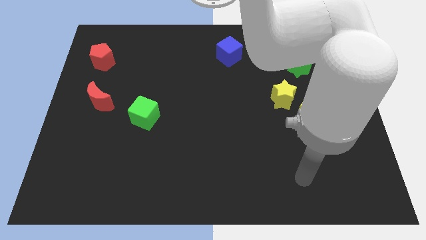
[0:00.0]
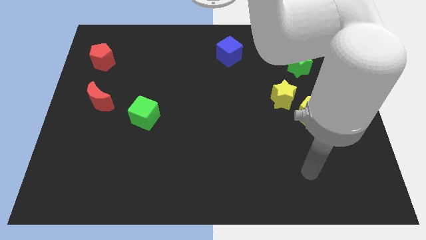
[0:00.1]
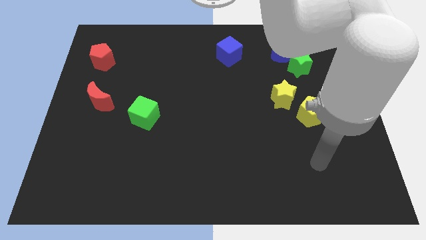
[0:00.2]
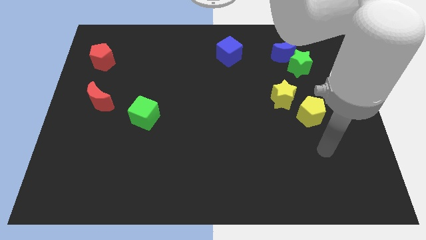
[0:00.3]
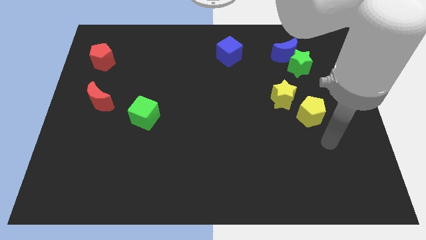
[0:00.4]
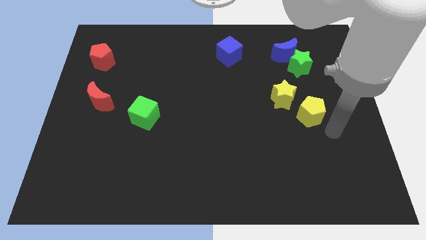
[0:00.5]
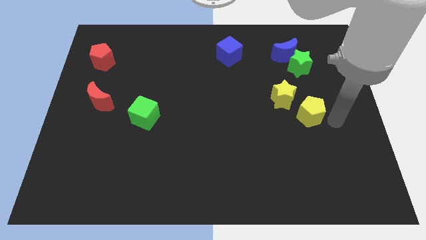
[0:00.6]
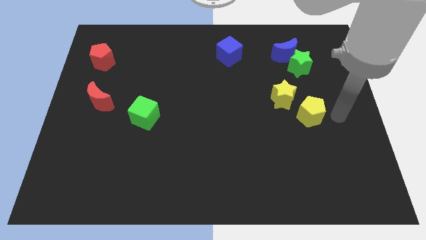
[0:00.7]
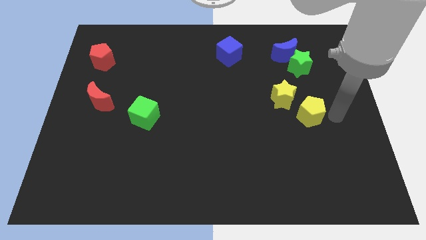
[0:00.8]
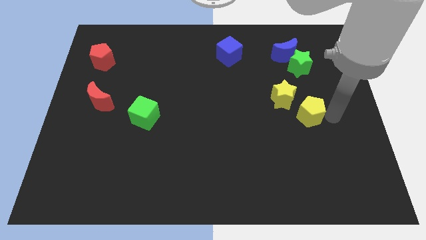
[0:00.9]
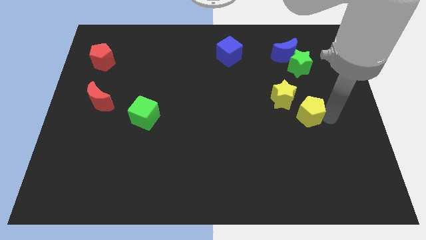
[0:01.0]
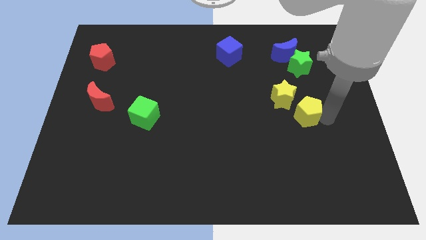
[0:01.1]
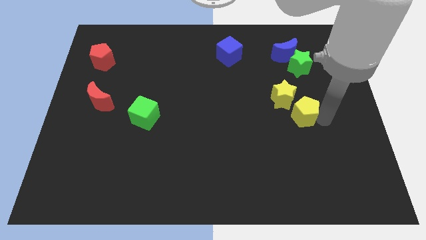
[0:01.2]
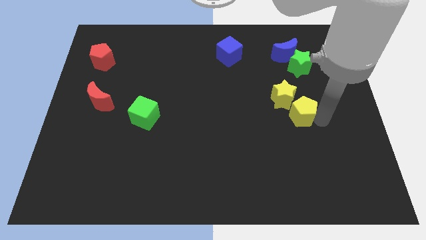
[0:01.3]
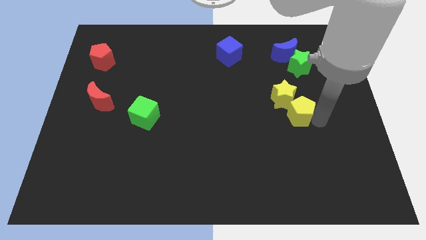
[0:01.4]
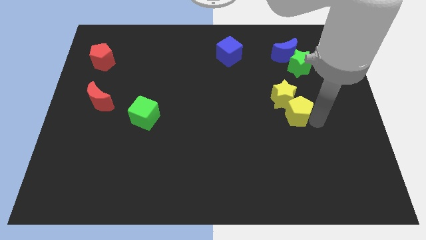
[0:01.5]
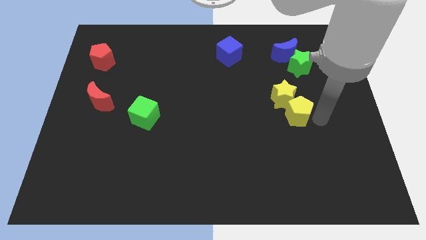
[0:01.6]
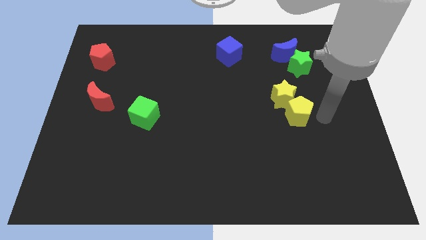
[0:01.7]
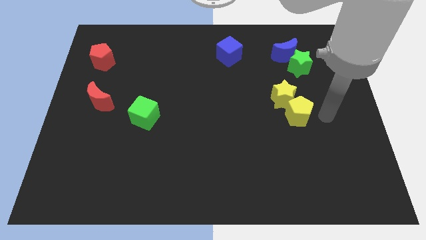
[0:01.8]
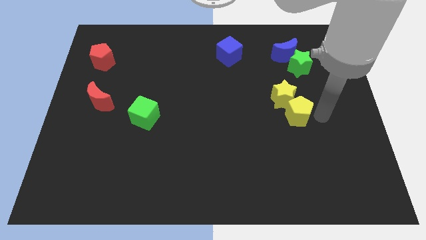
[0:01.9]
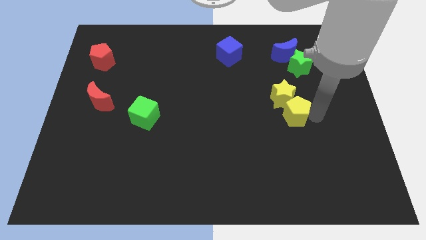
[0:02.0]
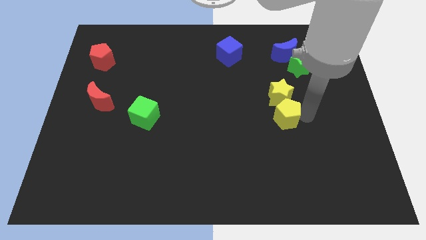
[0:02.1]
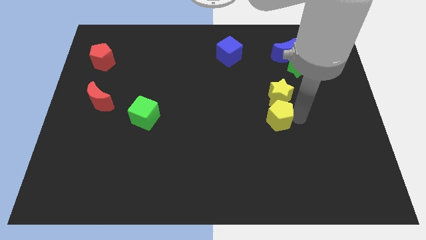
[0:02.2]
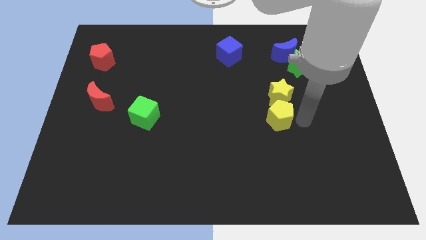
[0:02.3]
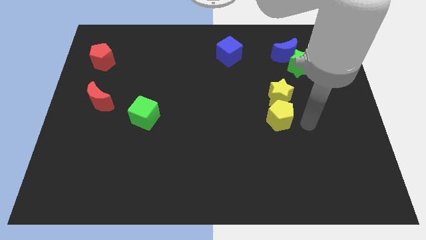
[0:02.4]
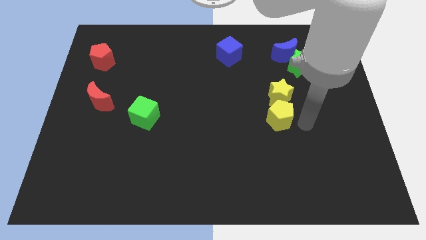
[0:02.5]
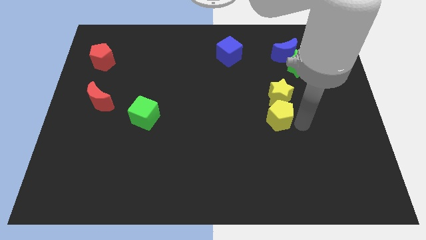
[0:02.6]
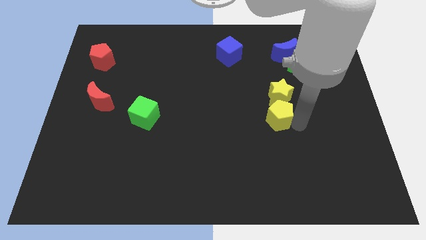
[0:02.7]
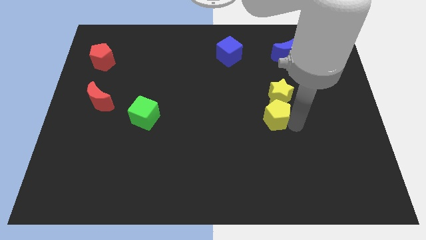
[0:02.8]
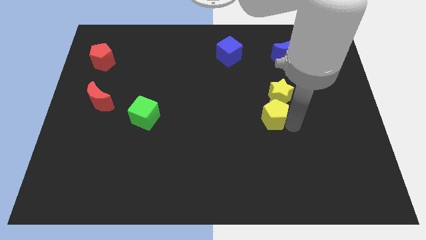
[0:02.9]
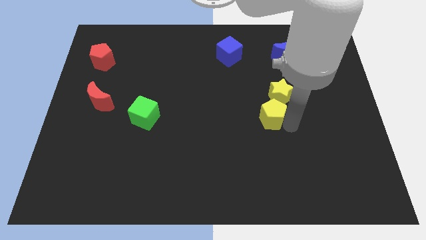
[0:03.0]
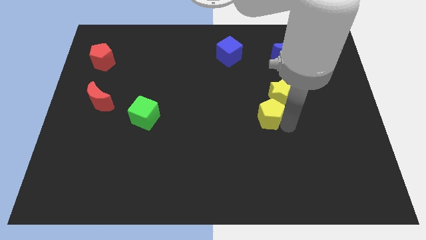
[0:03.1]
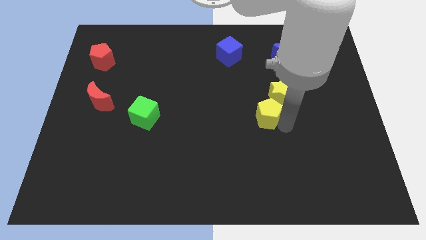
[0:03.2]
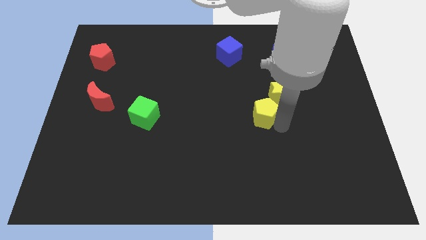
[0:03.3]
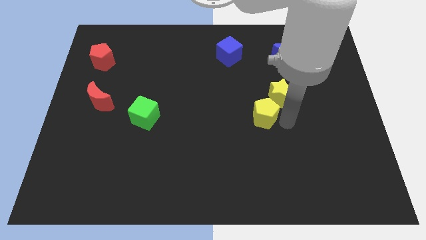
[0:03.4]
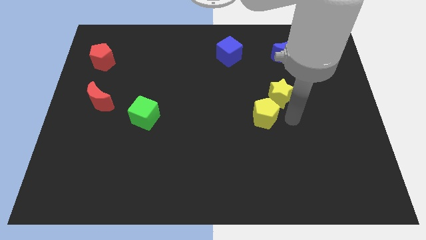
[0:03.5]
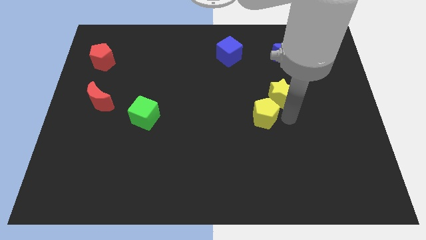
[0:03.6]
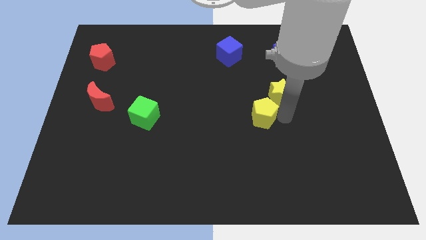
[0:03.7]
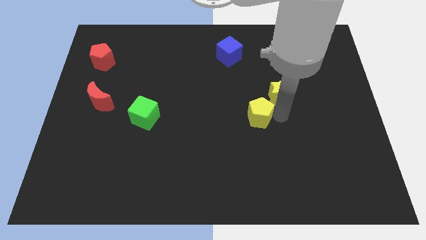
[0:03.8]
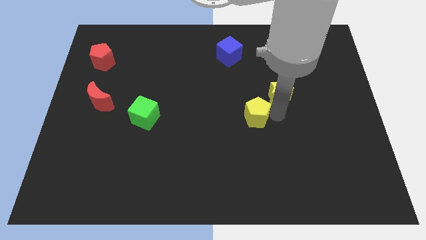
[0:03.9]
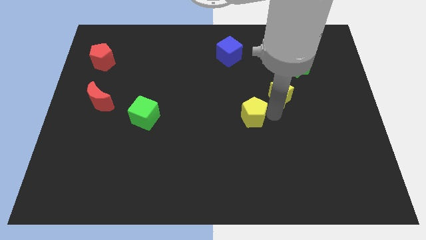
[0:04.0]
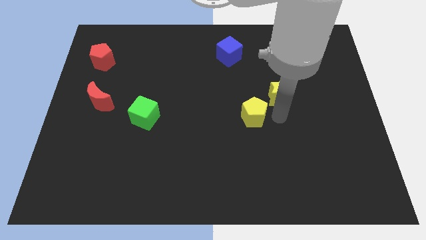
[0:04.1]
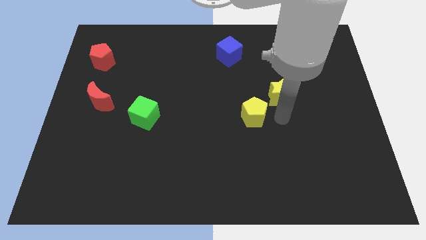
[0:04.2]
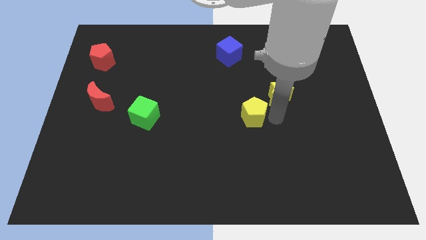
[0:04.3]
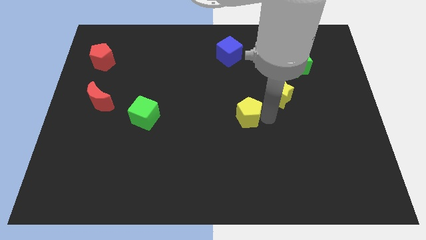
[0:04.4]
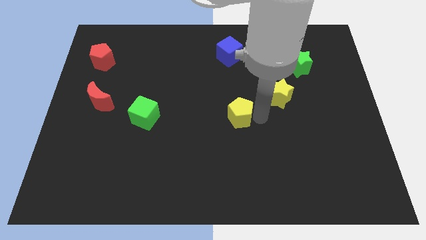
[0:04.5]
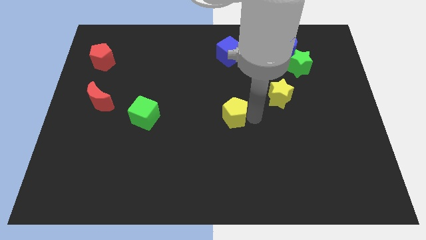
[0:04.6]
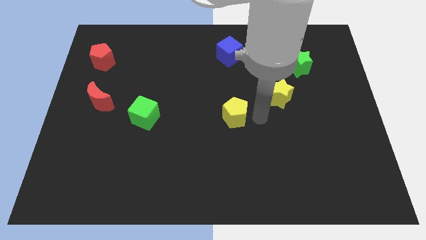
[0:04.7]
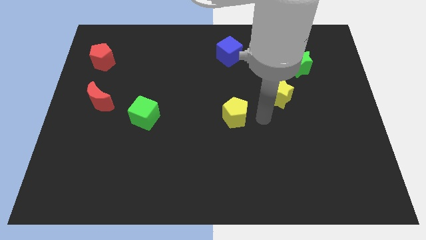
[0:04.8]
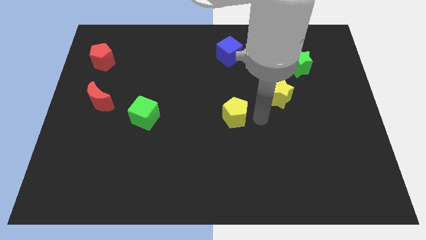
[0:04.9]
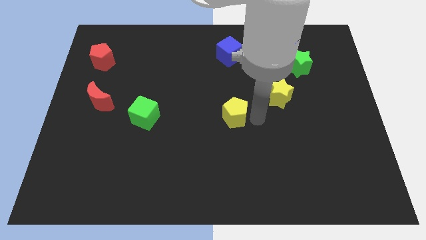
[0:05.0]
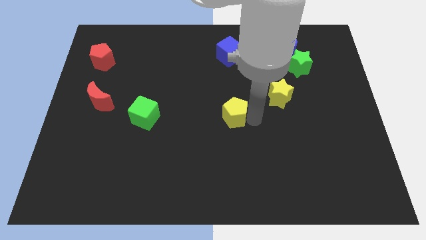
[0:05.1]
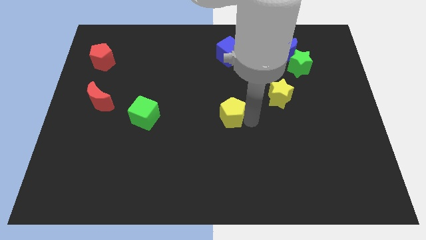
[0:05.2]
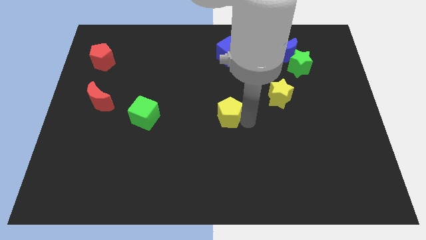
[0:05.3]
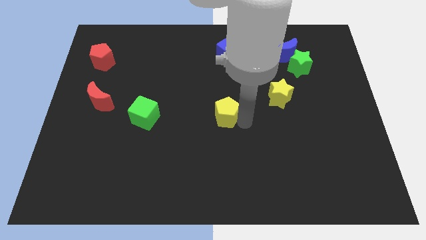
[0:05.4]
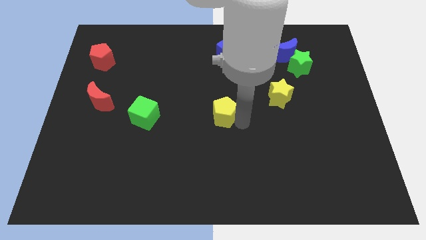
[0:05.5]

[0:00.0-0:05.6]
slide the yellow pentagon to the left

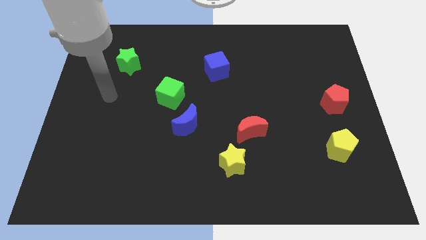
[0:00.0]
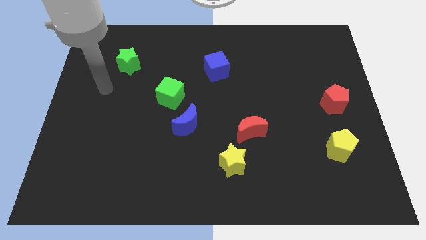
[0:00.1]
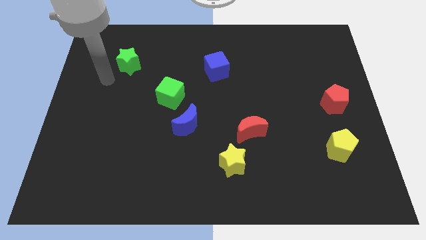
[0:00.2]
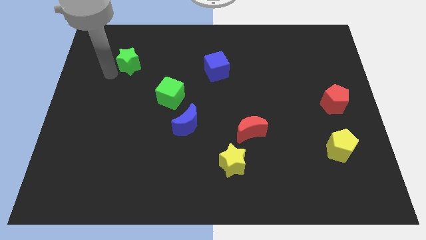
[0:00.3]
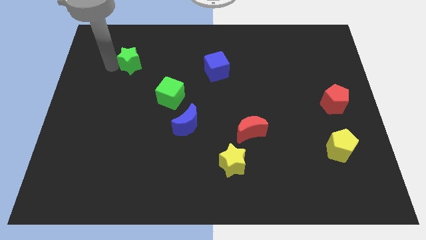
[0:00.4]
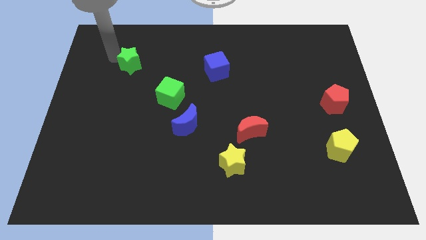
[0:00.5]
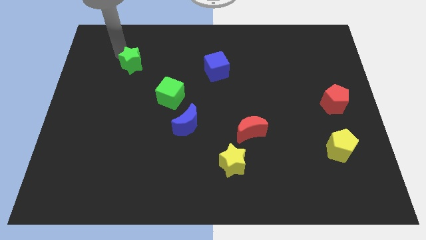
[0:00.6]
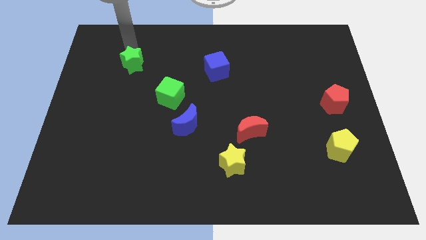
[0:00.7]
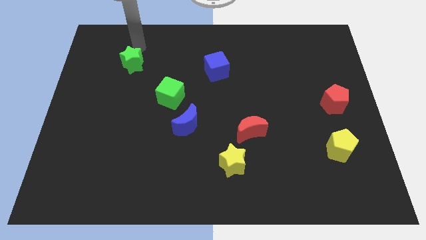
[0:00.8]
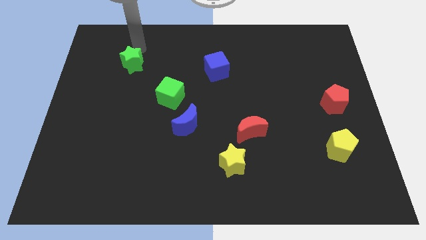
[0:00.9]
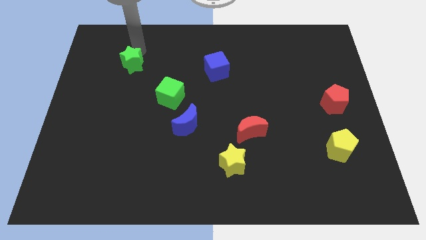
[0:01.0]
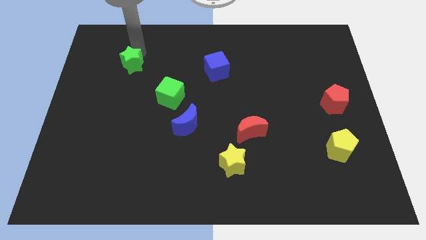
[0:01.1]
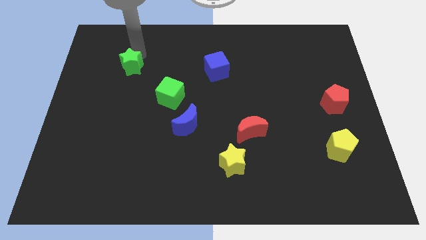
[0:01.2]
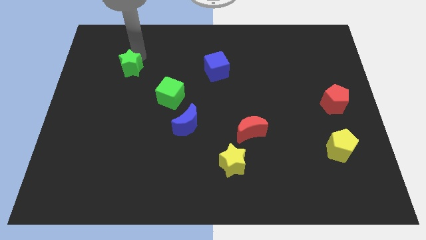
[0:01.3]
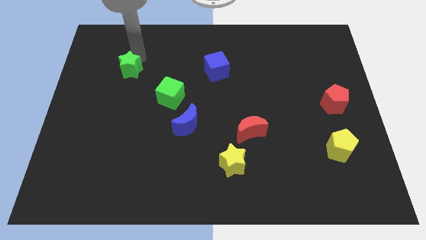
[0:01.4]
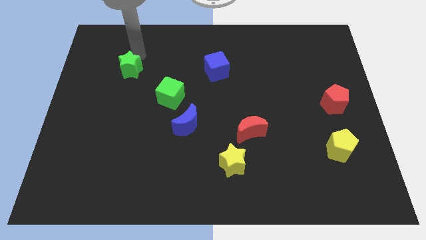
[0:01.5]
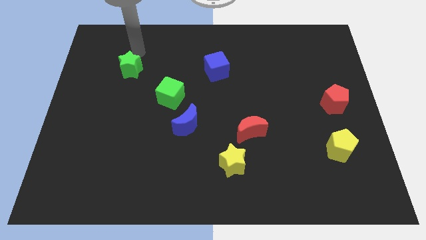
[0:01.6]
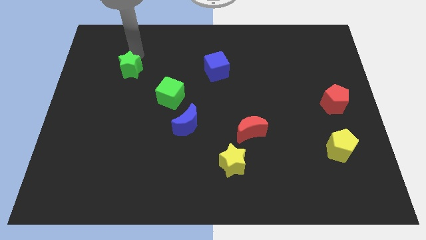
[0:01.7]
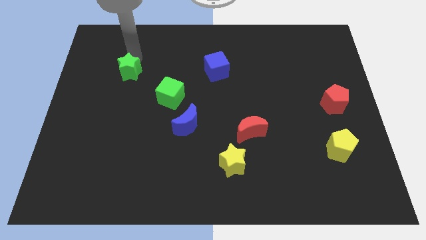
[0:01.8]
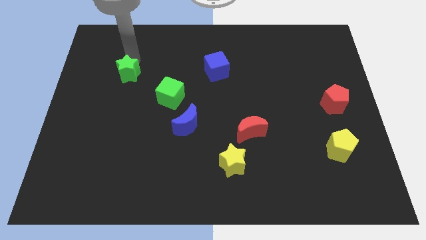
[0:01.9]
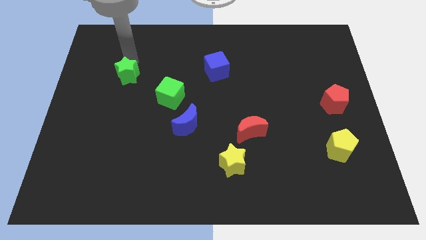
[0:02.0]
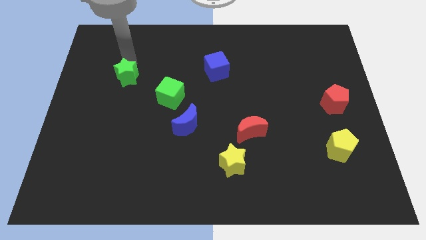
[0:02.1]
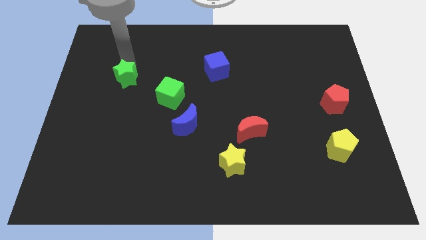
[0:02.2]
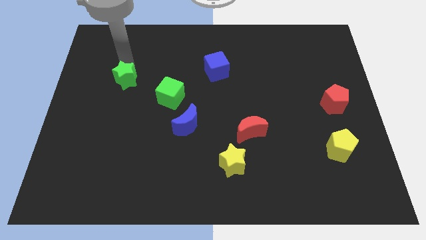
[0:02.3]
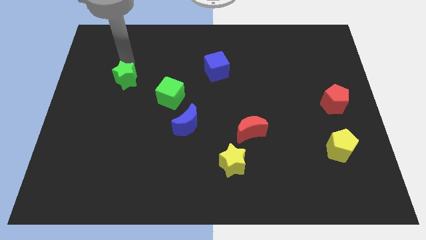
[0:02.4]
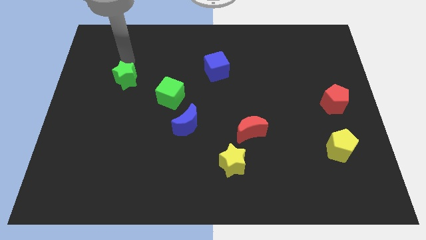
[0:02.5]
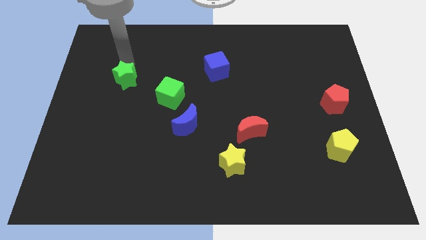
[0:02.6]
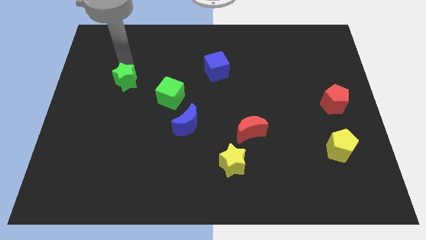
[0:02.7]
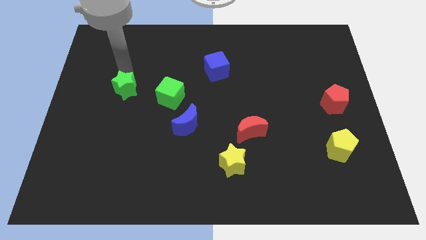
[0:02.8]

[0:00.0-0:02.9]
slide the green star a little bit down
